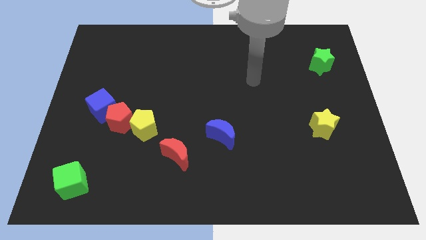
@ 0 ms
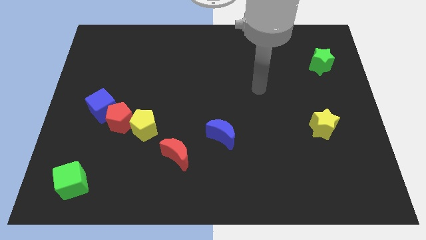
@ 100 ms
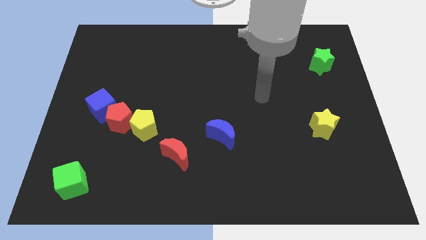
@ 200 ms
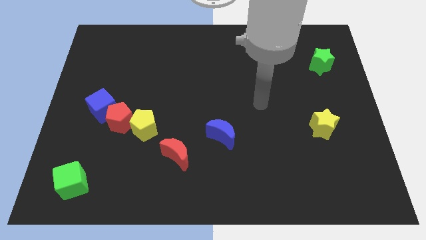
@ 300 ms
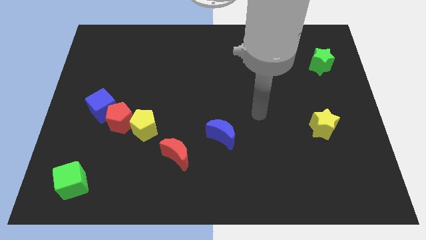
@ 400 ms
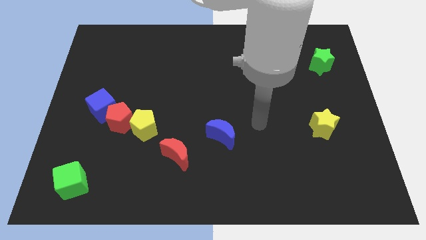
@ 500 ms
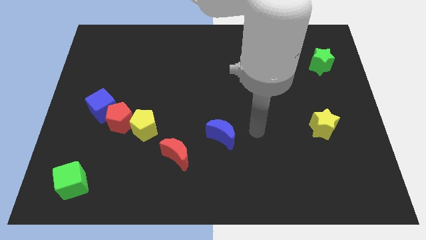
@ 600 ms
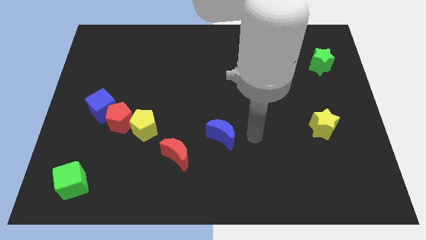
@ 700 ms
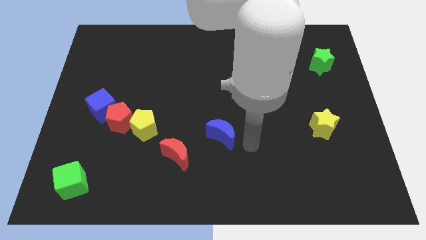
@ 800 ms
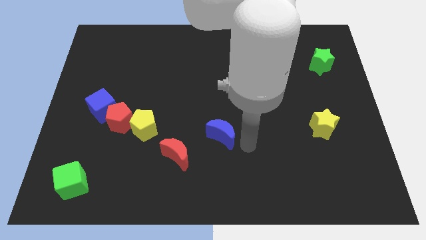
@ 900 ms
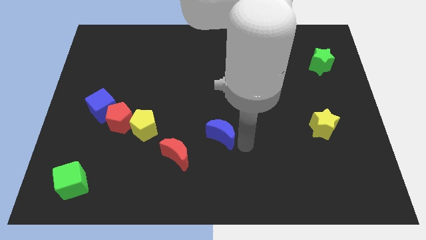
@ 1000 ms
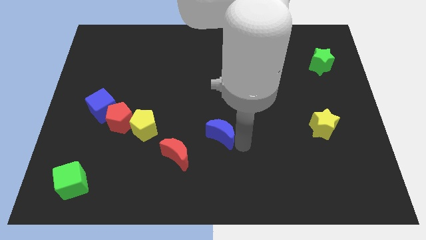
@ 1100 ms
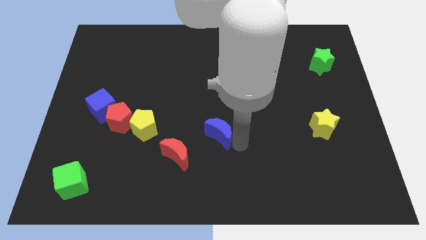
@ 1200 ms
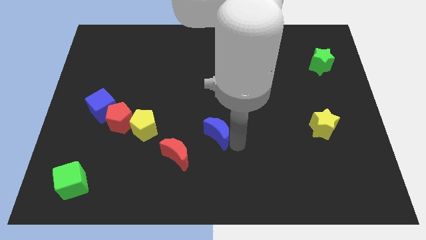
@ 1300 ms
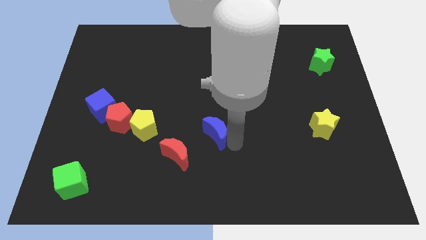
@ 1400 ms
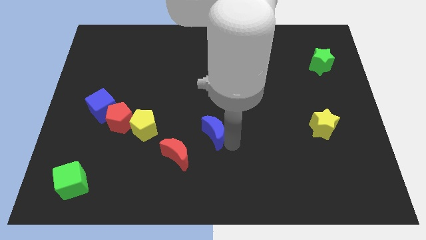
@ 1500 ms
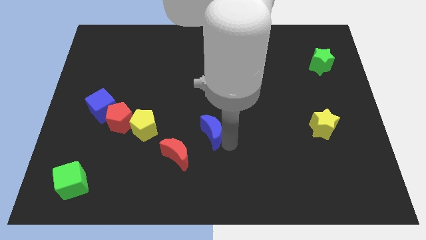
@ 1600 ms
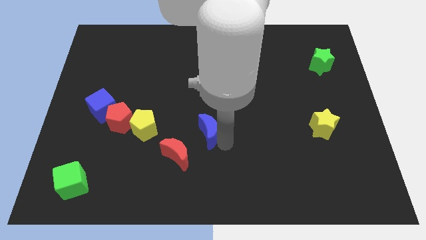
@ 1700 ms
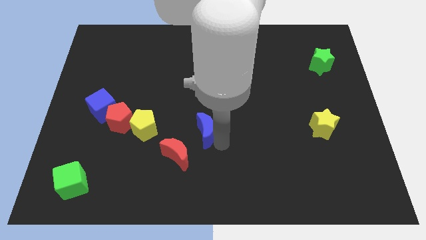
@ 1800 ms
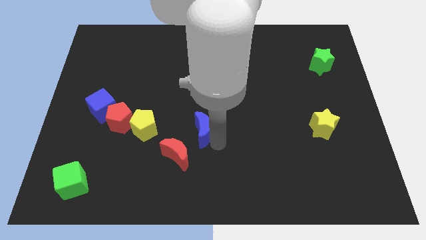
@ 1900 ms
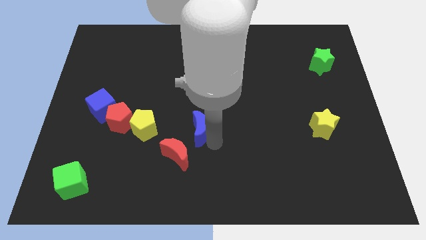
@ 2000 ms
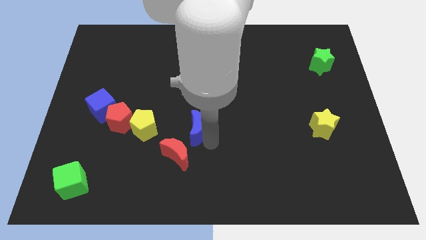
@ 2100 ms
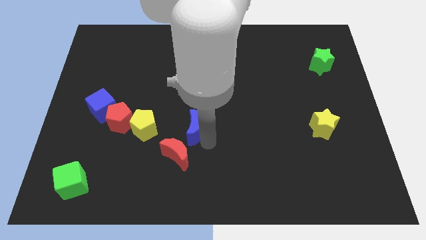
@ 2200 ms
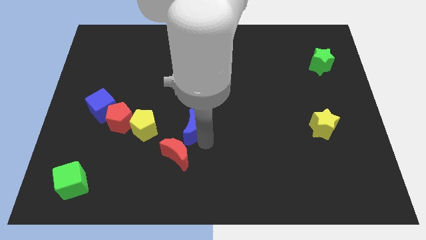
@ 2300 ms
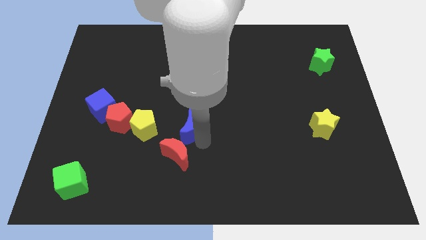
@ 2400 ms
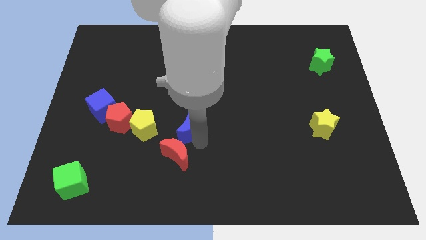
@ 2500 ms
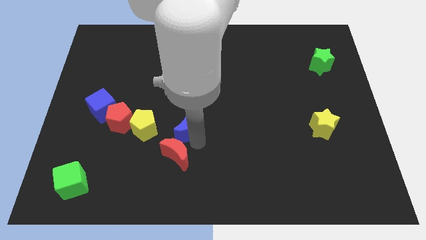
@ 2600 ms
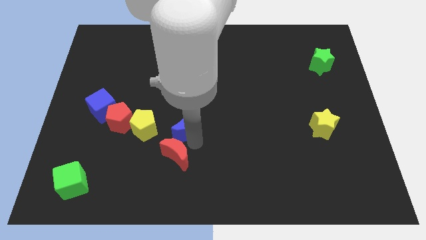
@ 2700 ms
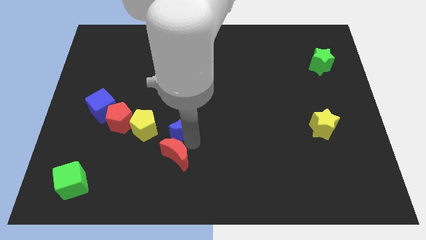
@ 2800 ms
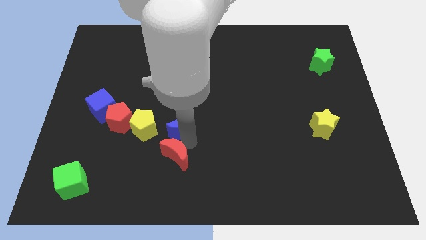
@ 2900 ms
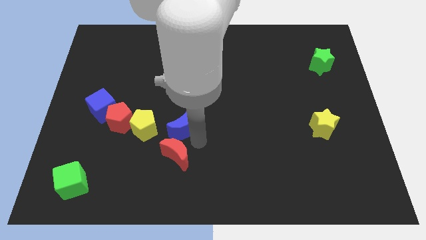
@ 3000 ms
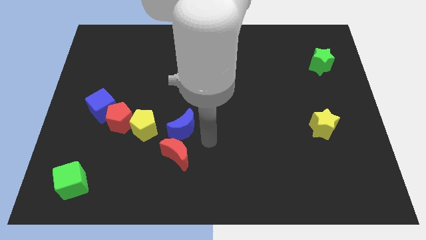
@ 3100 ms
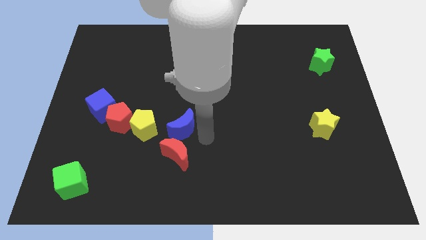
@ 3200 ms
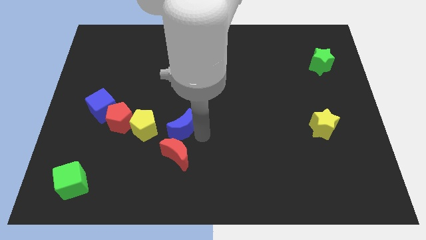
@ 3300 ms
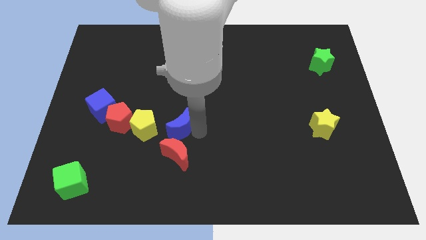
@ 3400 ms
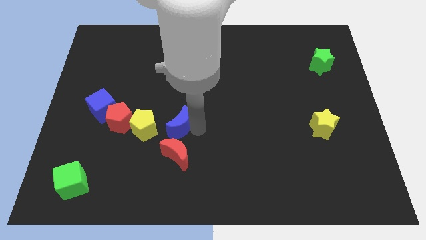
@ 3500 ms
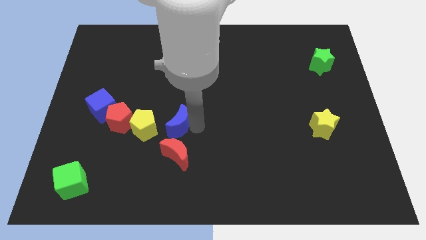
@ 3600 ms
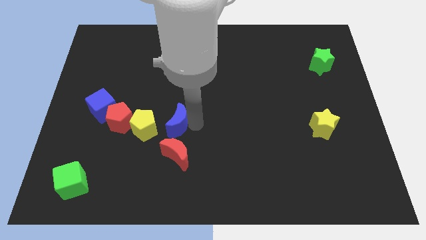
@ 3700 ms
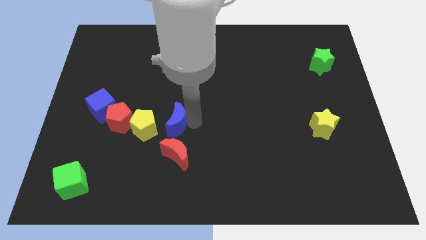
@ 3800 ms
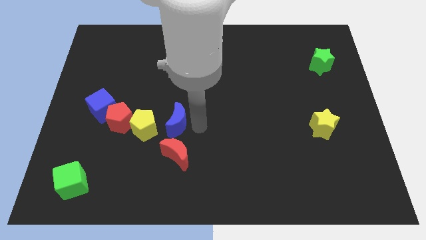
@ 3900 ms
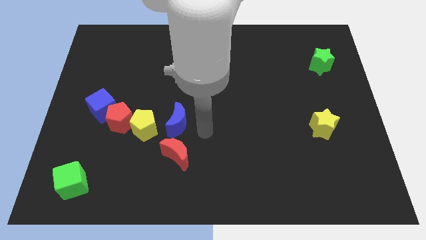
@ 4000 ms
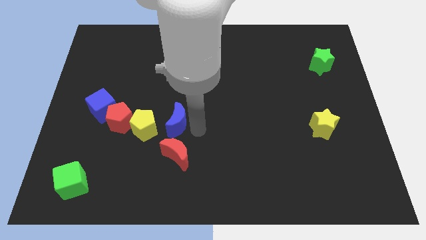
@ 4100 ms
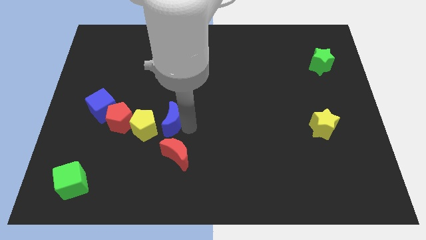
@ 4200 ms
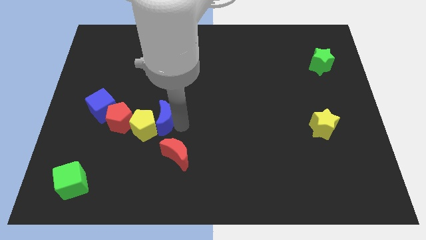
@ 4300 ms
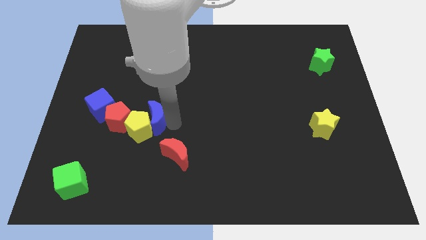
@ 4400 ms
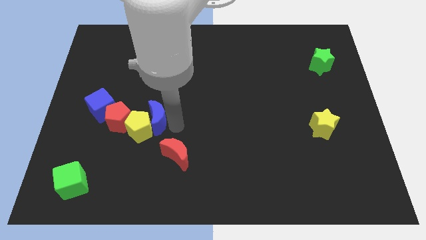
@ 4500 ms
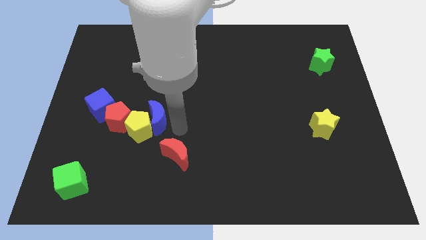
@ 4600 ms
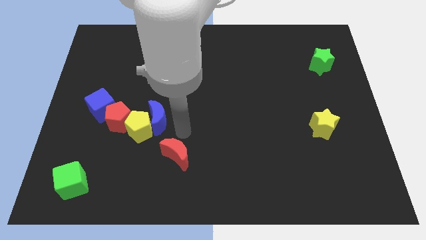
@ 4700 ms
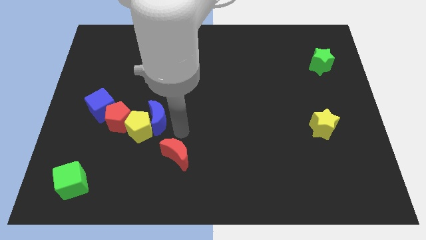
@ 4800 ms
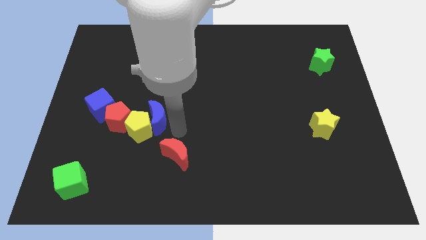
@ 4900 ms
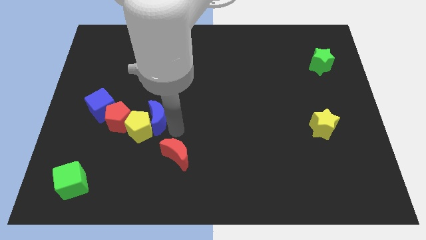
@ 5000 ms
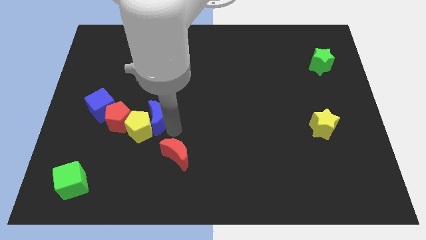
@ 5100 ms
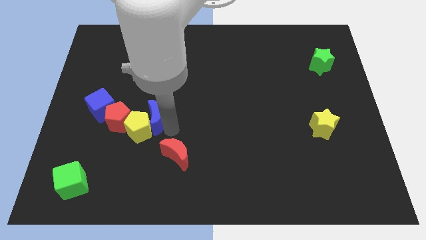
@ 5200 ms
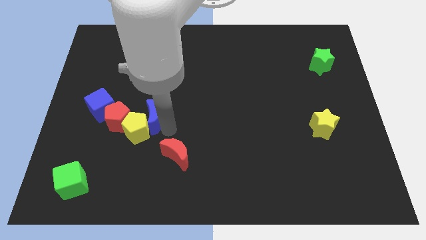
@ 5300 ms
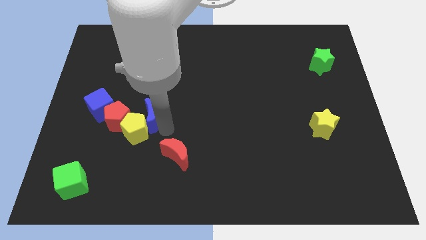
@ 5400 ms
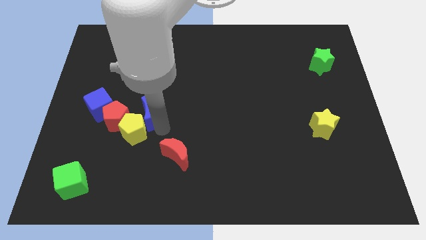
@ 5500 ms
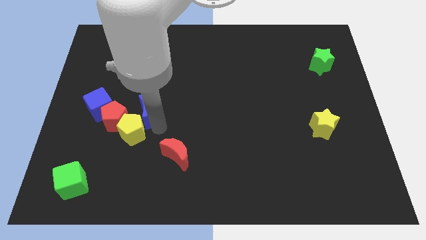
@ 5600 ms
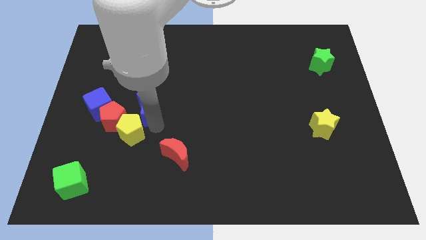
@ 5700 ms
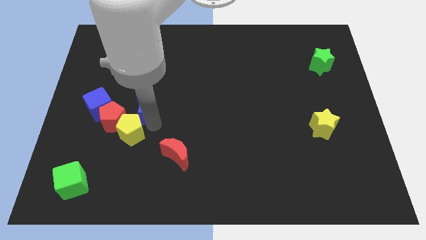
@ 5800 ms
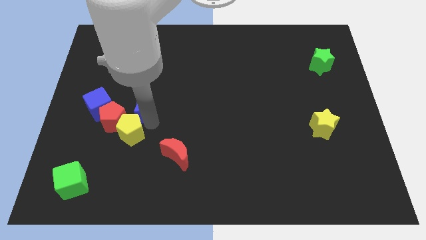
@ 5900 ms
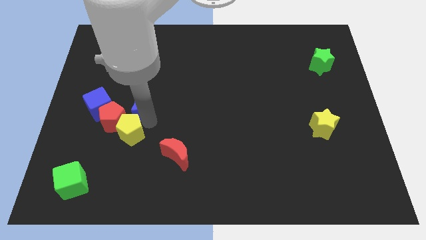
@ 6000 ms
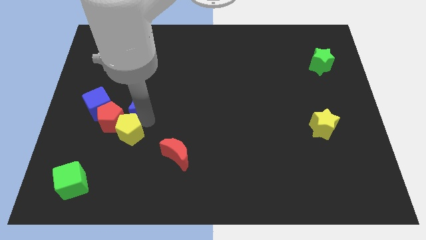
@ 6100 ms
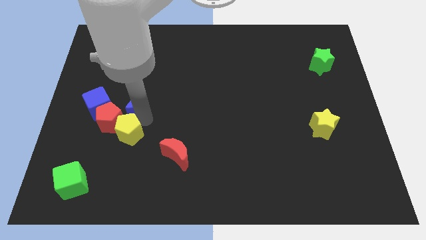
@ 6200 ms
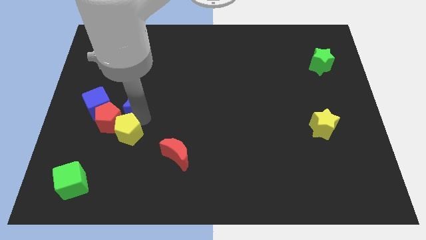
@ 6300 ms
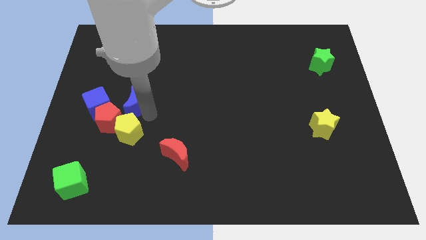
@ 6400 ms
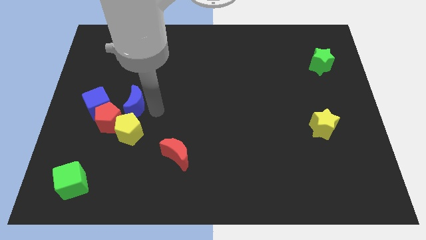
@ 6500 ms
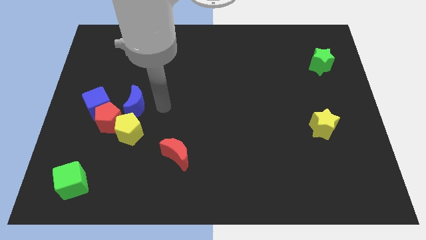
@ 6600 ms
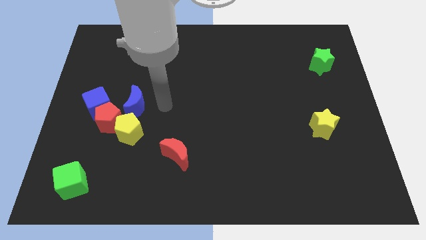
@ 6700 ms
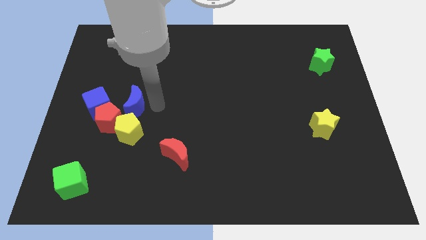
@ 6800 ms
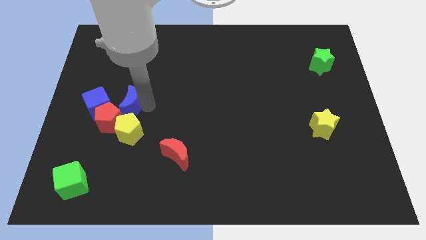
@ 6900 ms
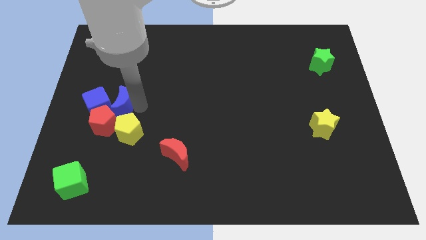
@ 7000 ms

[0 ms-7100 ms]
push the blue moon close to the blue cube

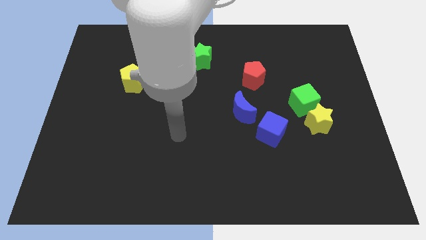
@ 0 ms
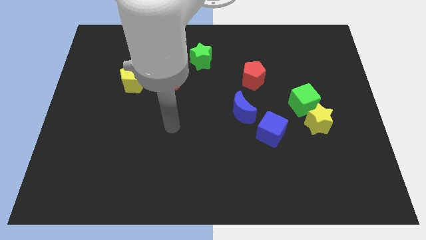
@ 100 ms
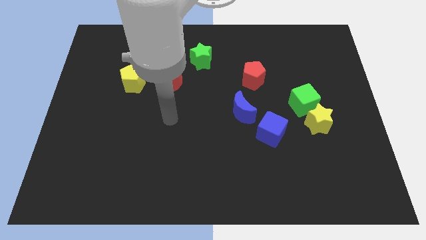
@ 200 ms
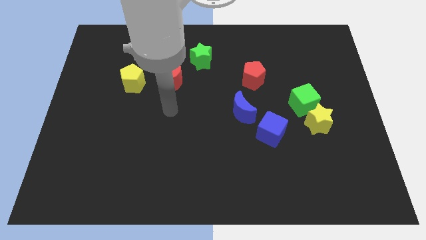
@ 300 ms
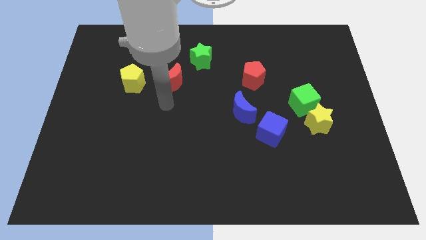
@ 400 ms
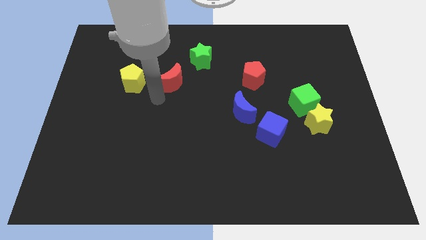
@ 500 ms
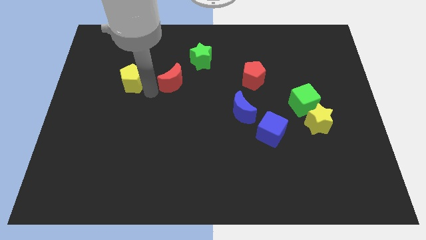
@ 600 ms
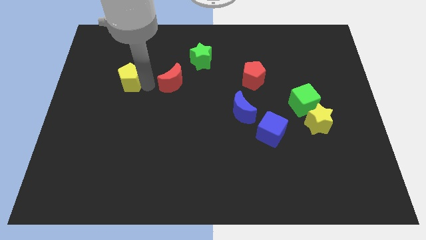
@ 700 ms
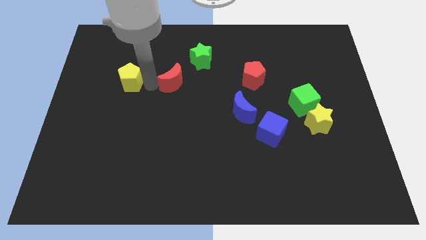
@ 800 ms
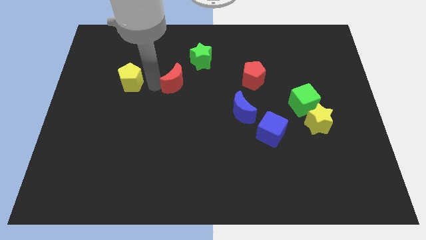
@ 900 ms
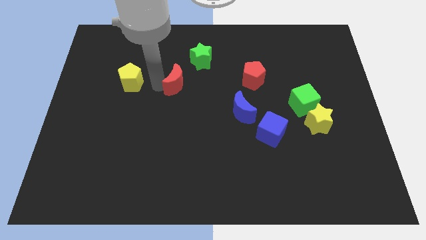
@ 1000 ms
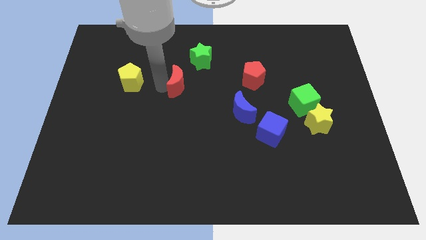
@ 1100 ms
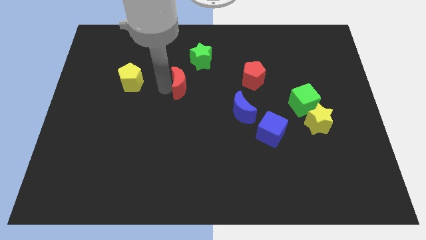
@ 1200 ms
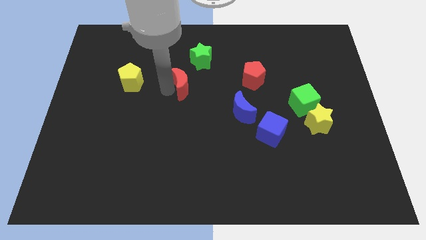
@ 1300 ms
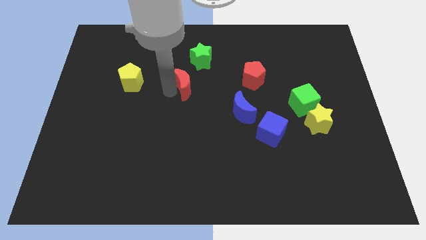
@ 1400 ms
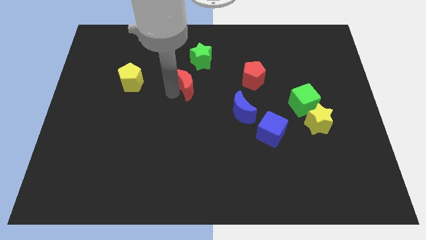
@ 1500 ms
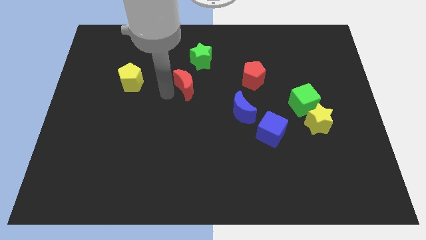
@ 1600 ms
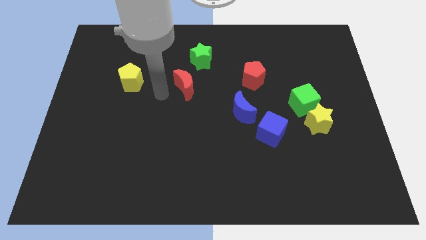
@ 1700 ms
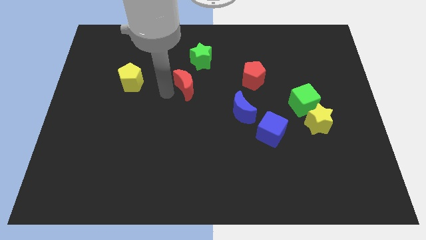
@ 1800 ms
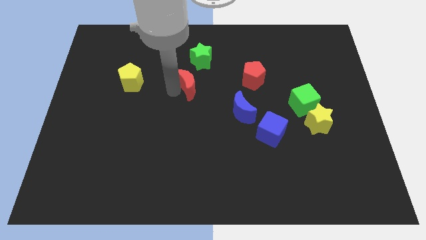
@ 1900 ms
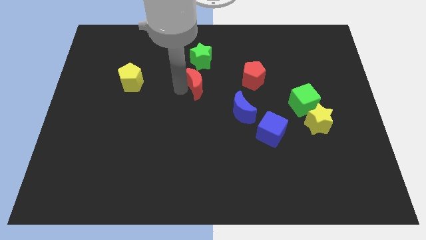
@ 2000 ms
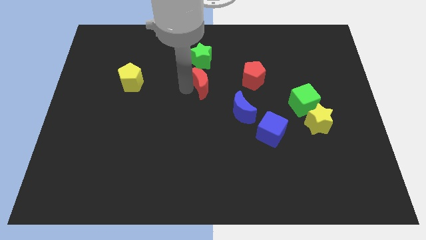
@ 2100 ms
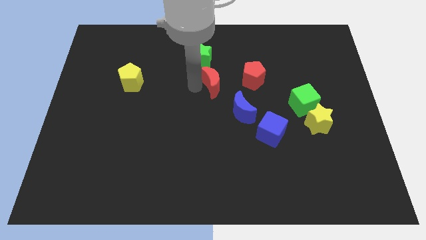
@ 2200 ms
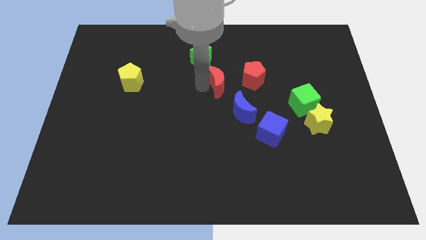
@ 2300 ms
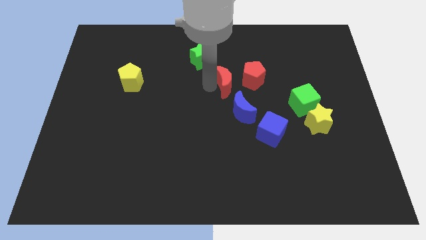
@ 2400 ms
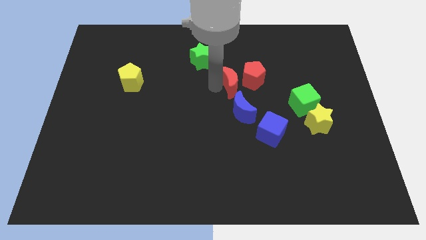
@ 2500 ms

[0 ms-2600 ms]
move the red moon towards the red pentagon
